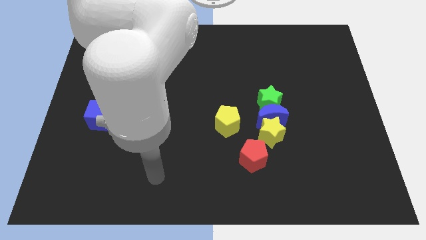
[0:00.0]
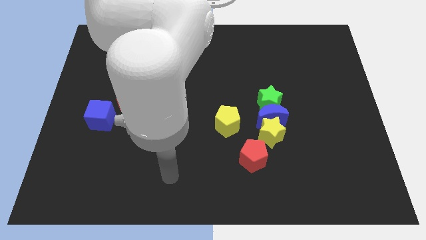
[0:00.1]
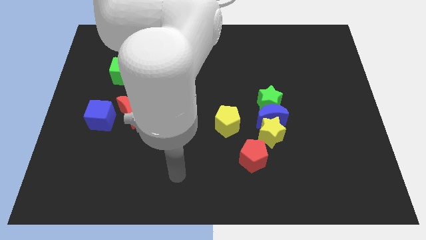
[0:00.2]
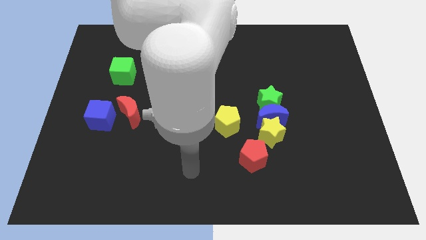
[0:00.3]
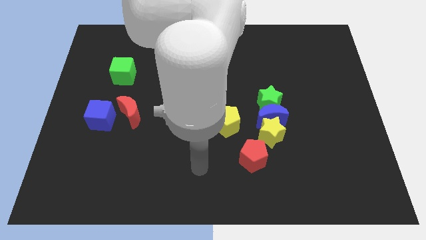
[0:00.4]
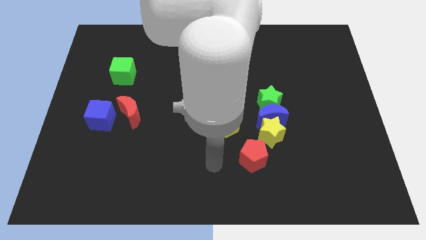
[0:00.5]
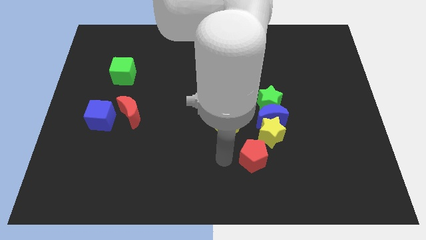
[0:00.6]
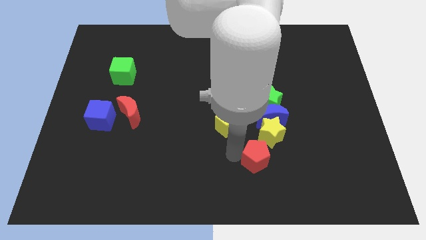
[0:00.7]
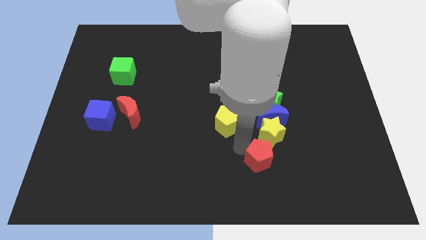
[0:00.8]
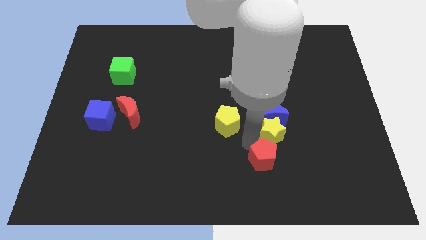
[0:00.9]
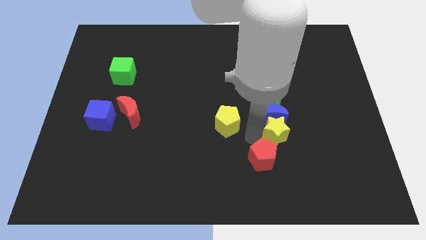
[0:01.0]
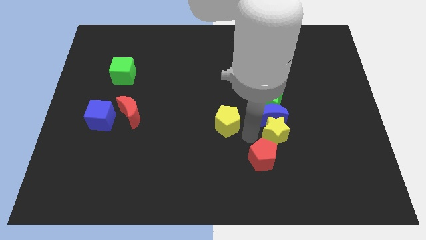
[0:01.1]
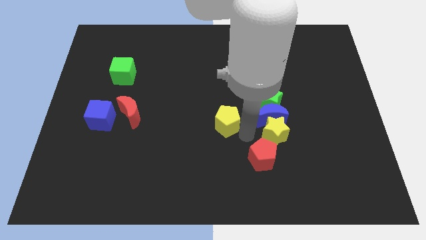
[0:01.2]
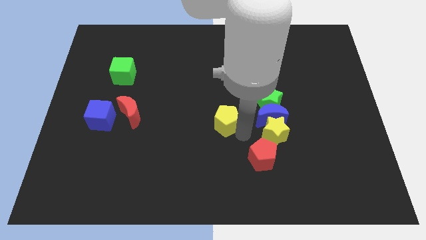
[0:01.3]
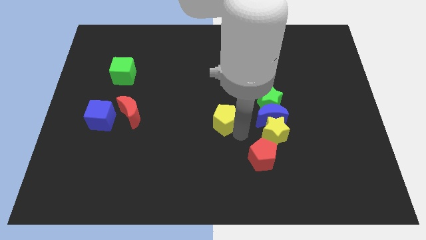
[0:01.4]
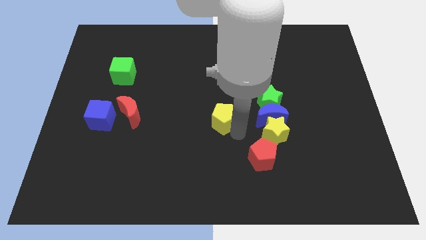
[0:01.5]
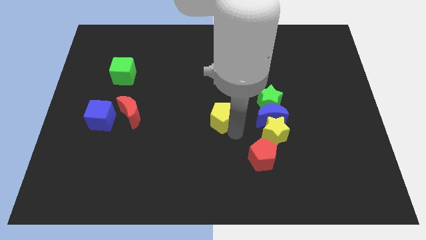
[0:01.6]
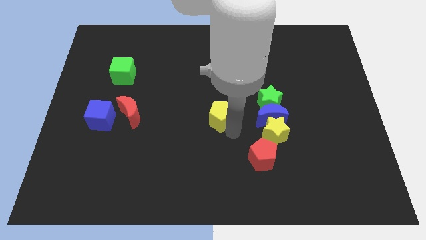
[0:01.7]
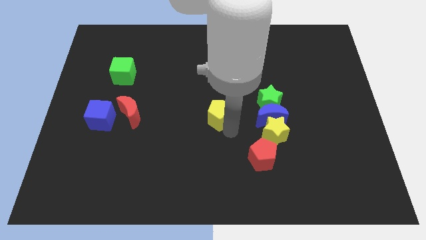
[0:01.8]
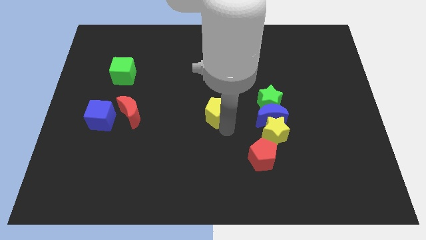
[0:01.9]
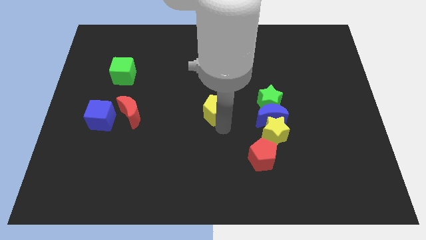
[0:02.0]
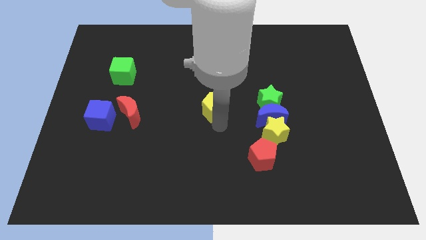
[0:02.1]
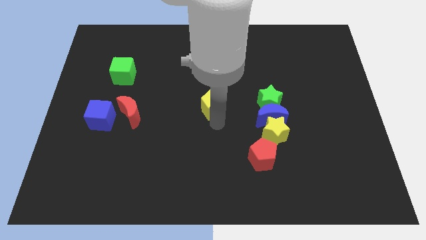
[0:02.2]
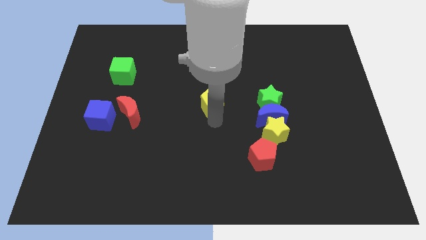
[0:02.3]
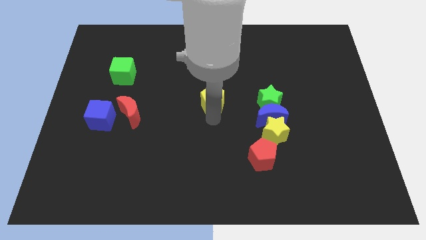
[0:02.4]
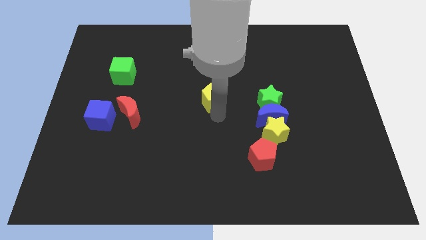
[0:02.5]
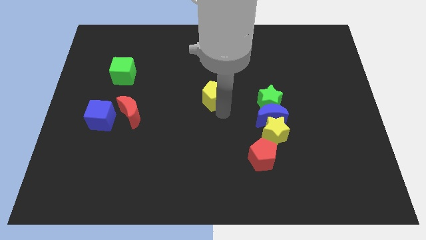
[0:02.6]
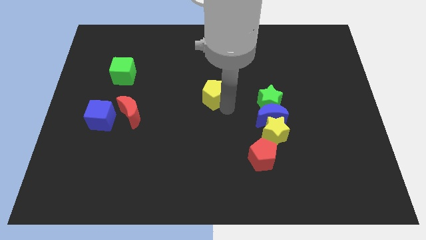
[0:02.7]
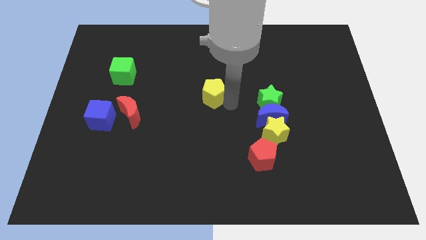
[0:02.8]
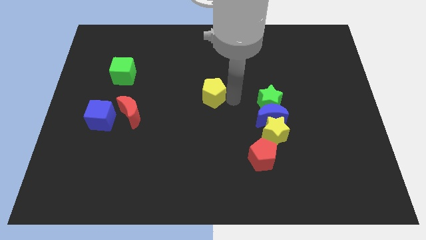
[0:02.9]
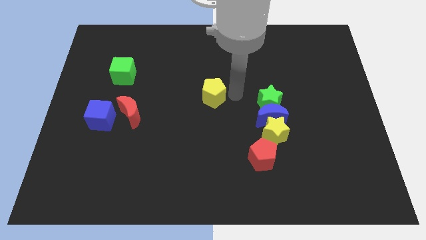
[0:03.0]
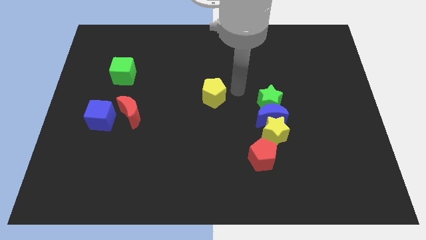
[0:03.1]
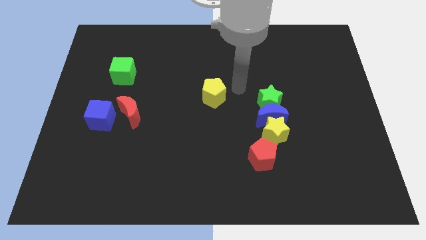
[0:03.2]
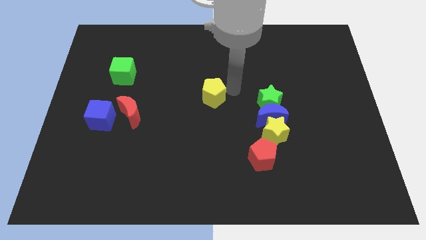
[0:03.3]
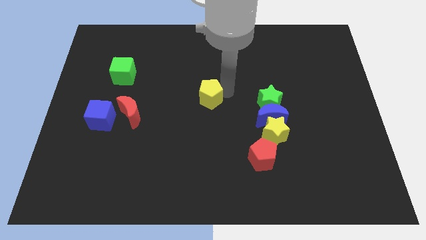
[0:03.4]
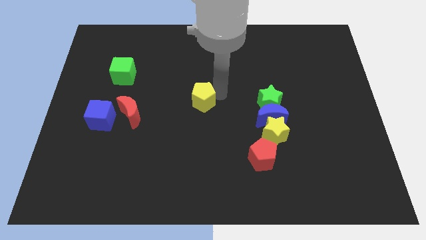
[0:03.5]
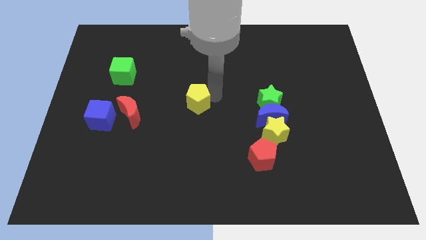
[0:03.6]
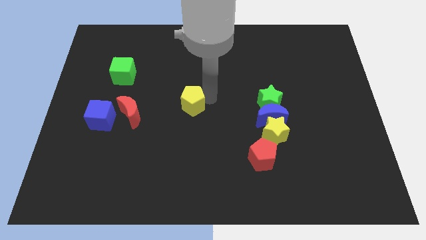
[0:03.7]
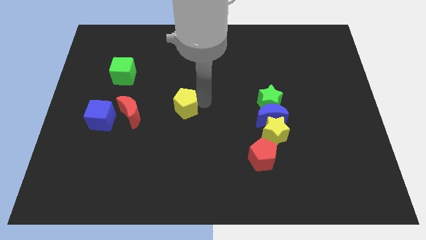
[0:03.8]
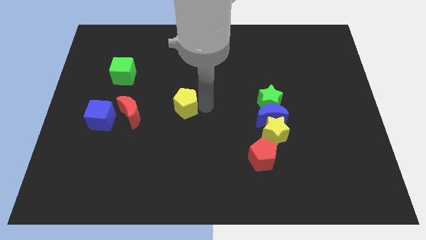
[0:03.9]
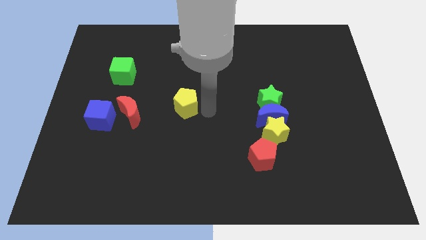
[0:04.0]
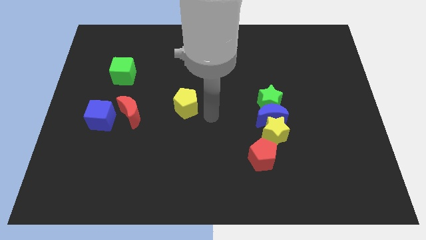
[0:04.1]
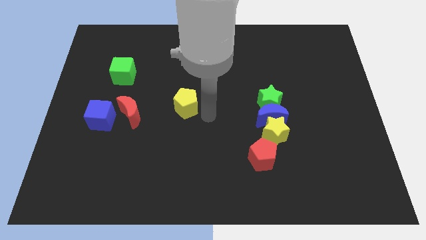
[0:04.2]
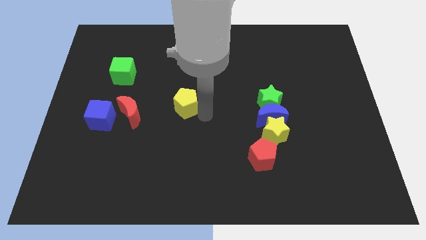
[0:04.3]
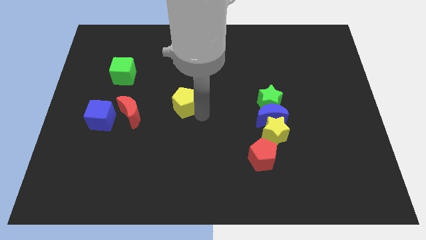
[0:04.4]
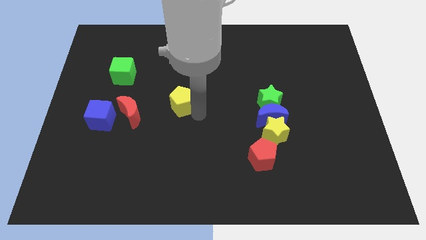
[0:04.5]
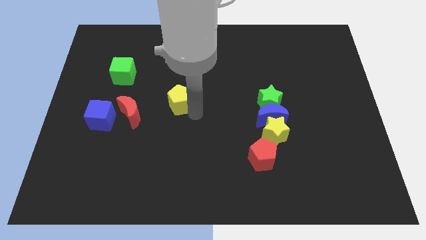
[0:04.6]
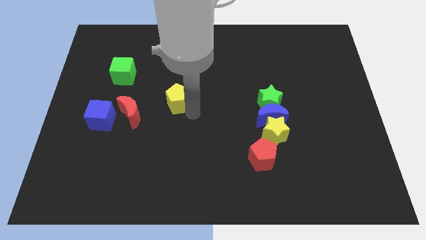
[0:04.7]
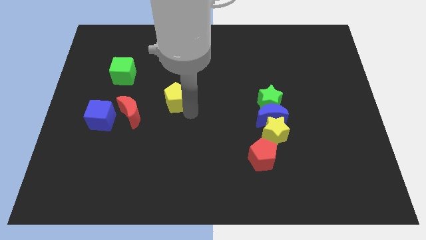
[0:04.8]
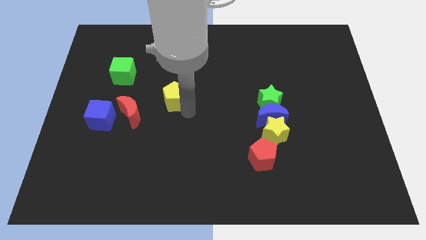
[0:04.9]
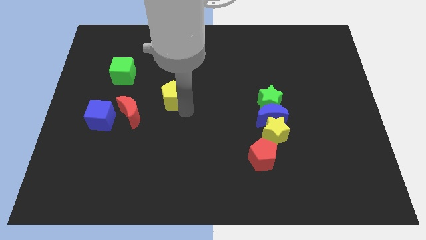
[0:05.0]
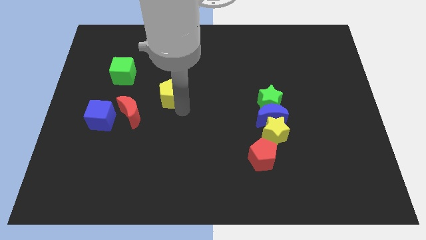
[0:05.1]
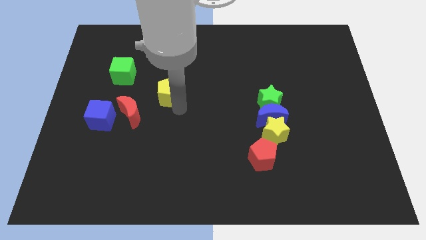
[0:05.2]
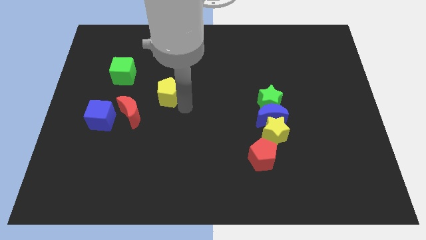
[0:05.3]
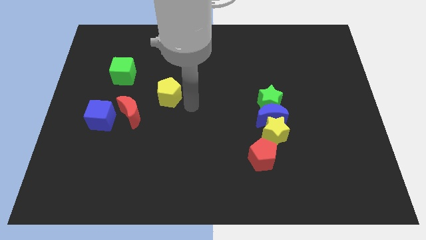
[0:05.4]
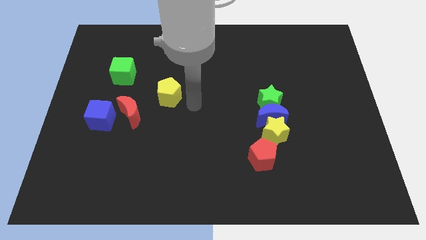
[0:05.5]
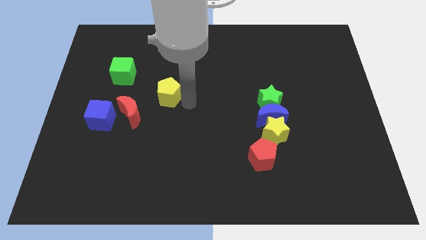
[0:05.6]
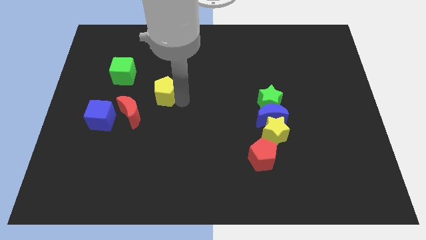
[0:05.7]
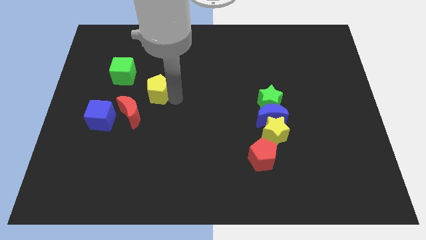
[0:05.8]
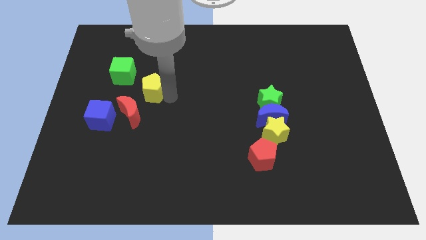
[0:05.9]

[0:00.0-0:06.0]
put the yellow pentagon to the top of the red moon

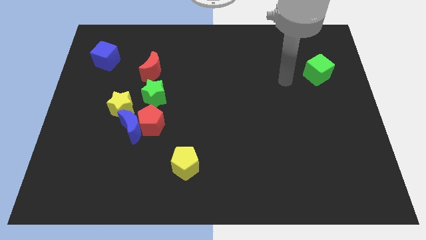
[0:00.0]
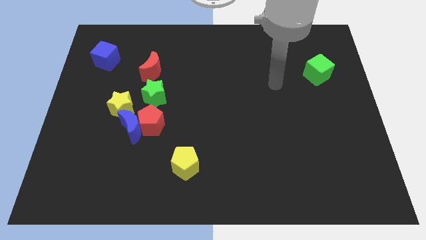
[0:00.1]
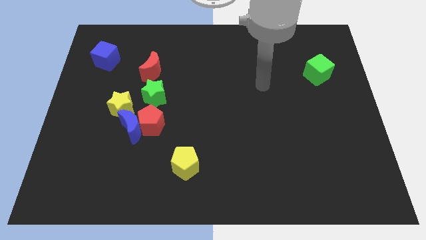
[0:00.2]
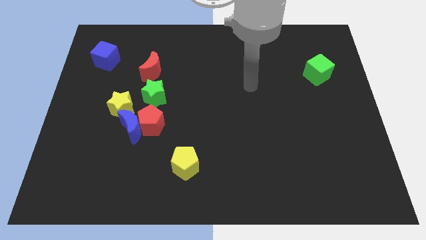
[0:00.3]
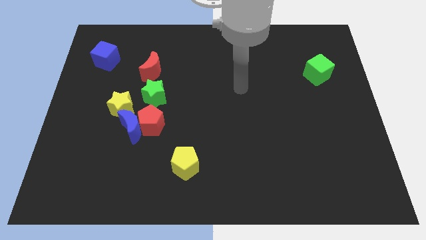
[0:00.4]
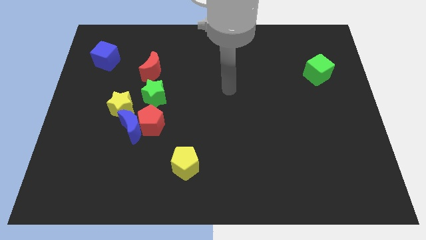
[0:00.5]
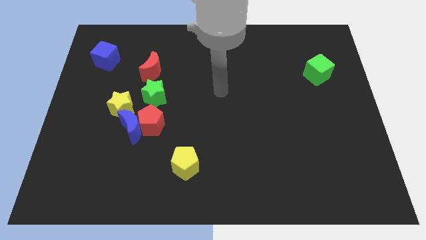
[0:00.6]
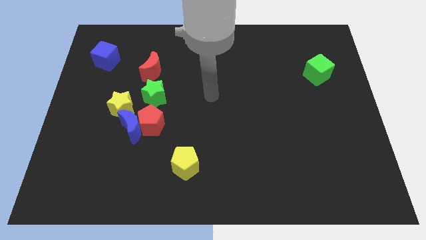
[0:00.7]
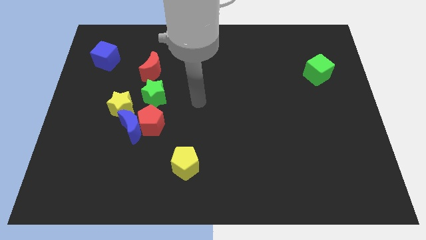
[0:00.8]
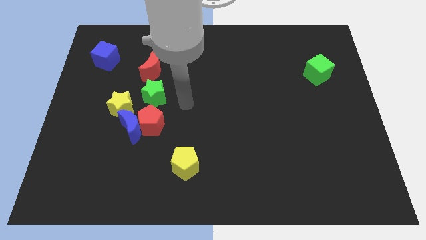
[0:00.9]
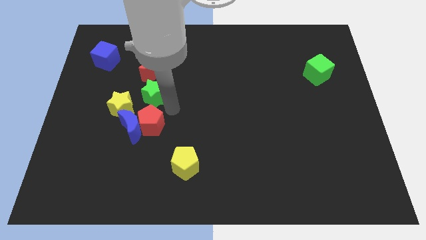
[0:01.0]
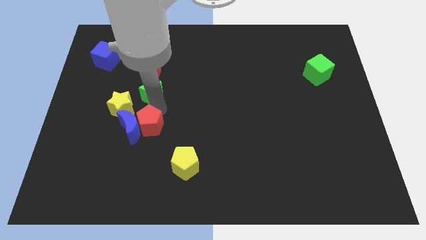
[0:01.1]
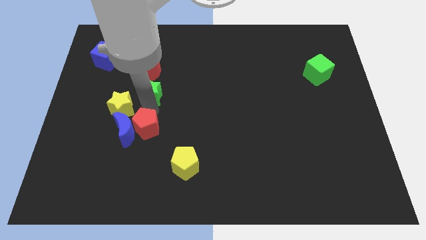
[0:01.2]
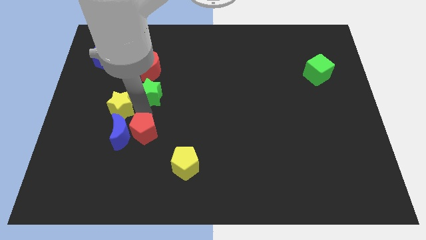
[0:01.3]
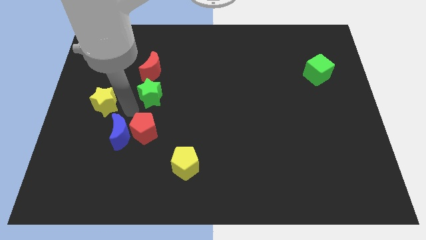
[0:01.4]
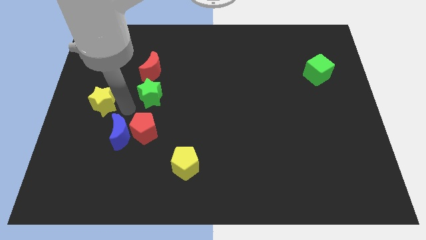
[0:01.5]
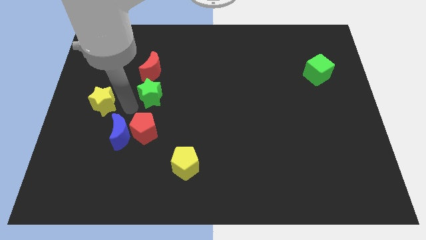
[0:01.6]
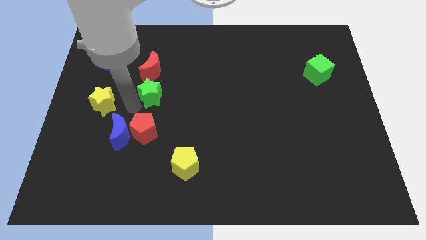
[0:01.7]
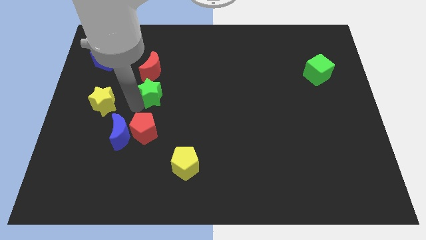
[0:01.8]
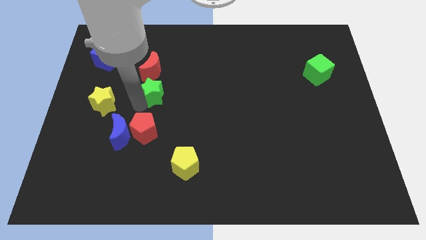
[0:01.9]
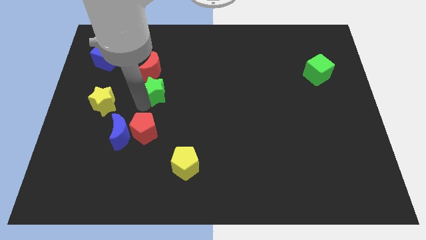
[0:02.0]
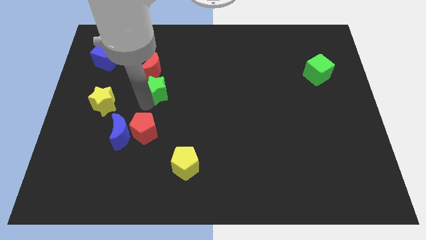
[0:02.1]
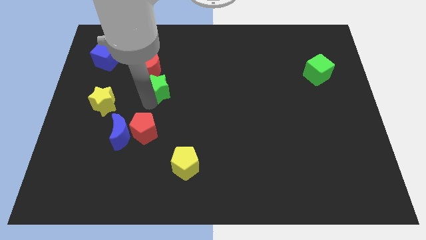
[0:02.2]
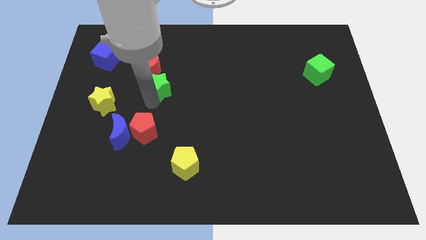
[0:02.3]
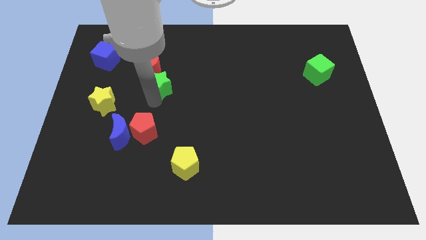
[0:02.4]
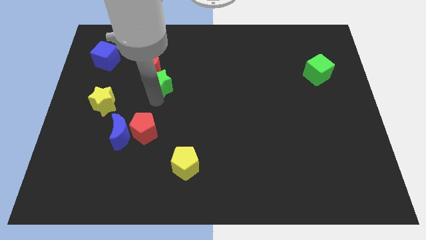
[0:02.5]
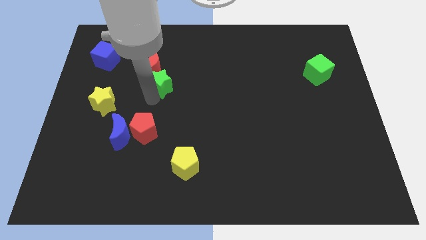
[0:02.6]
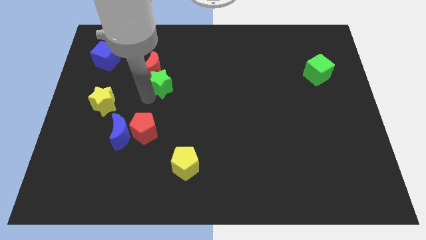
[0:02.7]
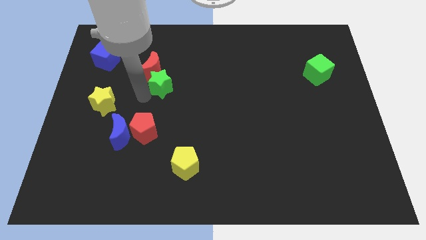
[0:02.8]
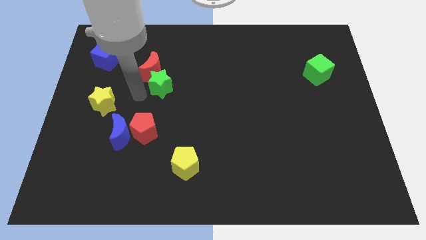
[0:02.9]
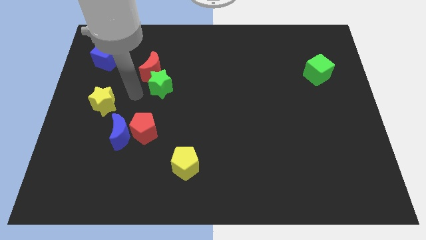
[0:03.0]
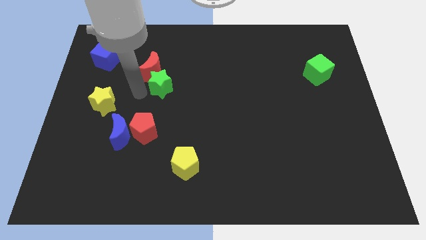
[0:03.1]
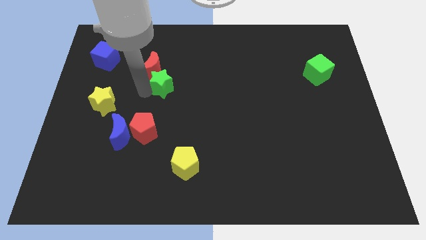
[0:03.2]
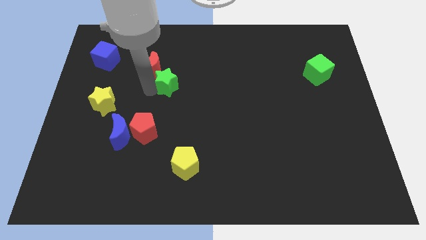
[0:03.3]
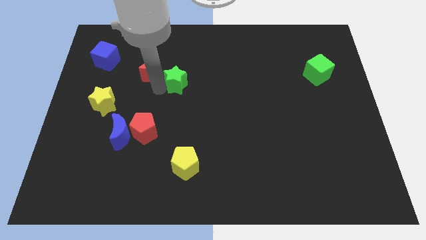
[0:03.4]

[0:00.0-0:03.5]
put the green star just right of the red moon
